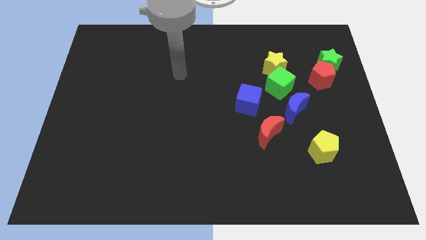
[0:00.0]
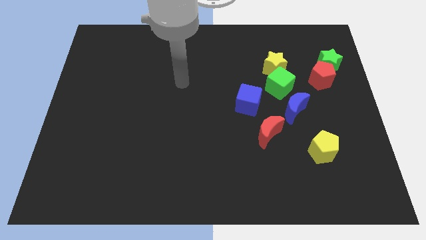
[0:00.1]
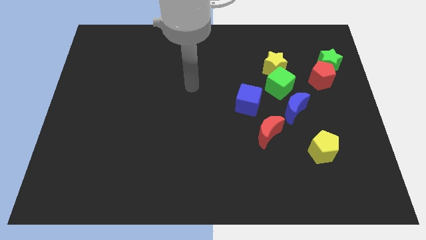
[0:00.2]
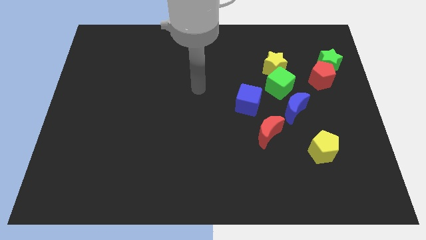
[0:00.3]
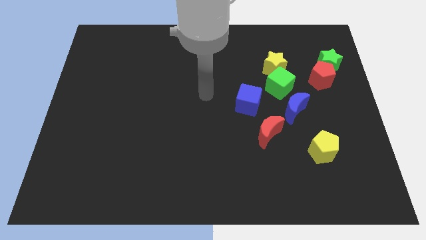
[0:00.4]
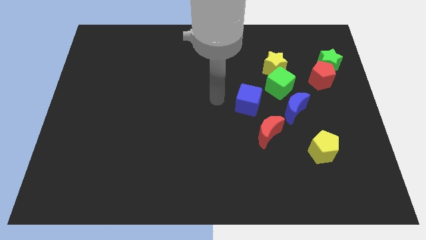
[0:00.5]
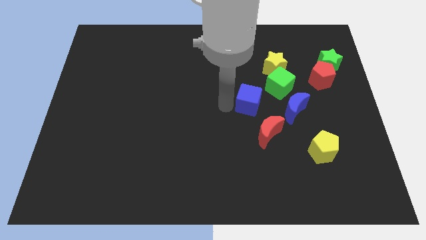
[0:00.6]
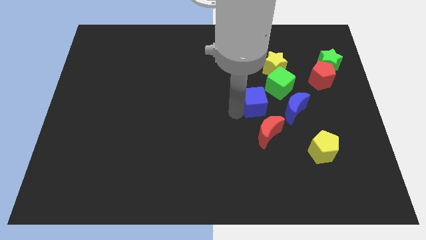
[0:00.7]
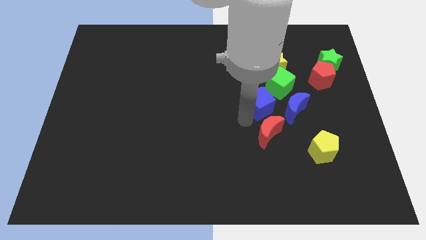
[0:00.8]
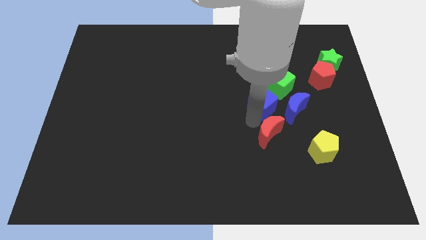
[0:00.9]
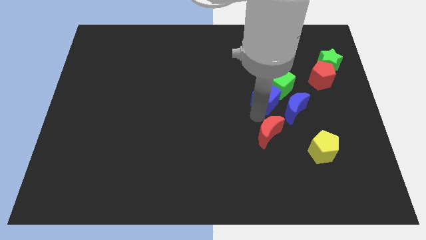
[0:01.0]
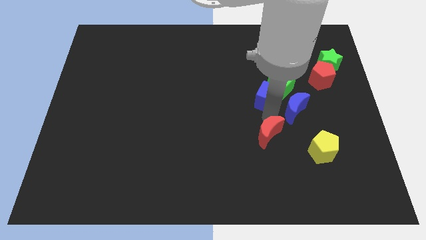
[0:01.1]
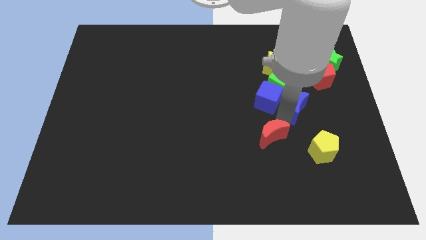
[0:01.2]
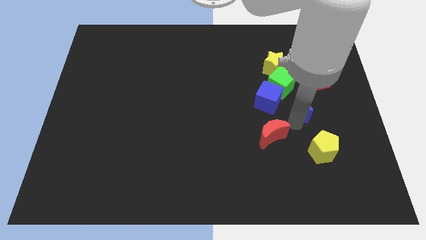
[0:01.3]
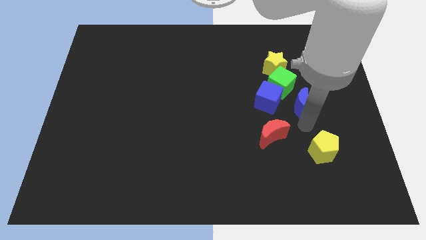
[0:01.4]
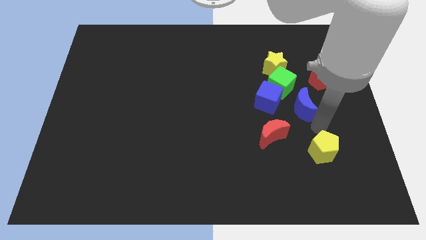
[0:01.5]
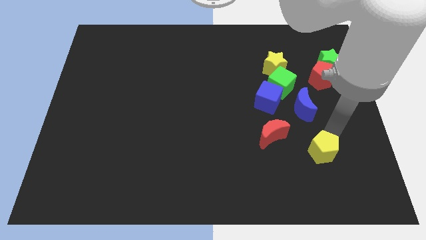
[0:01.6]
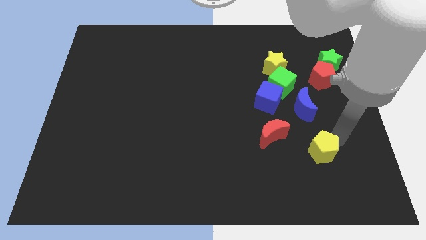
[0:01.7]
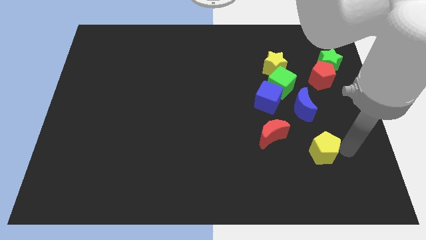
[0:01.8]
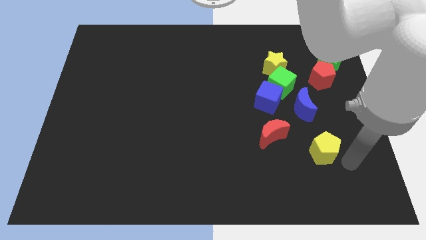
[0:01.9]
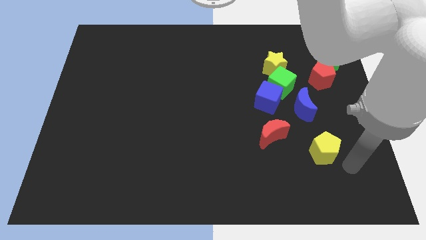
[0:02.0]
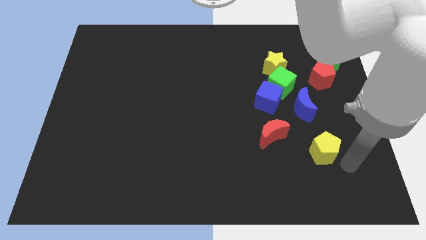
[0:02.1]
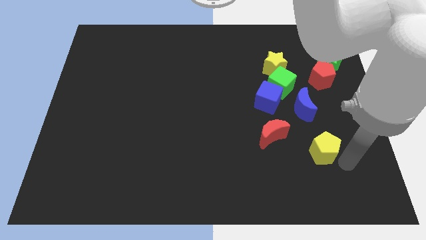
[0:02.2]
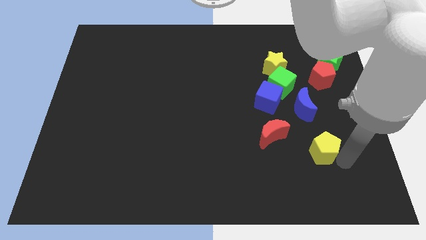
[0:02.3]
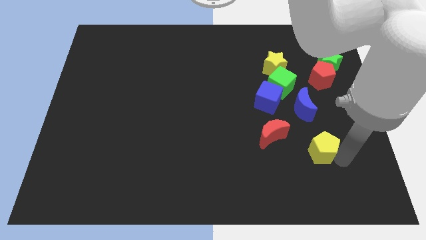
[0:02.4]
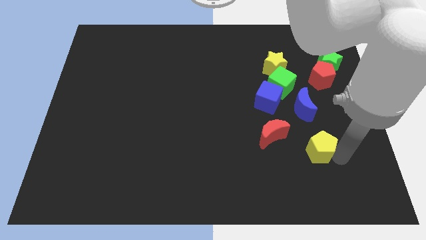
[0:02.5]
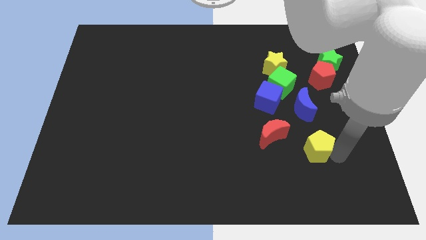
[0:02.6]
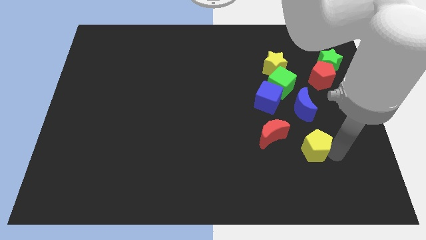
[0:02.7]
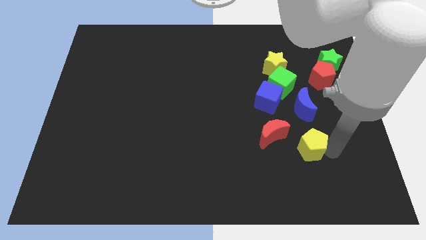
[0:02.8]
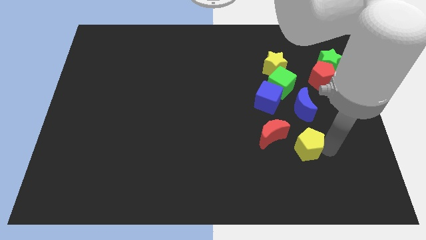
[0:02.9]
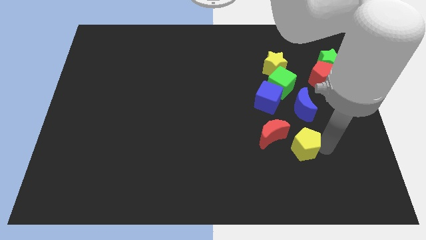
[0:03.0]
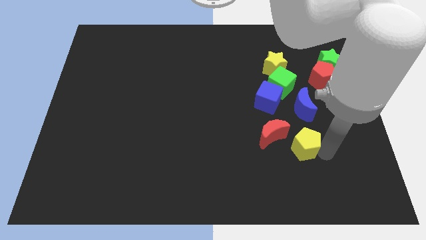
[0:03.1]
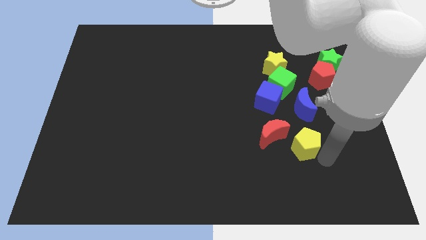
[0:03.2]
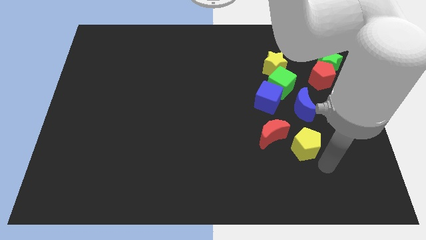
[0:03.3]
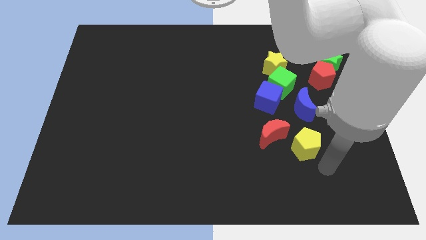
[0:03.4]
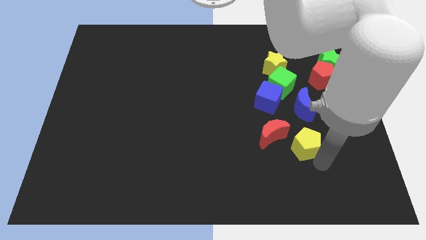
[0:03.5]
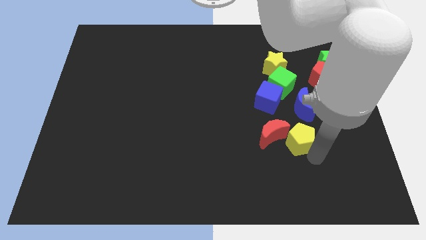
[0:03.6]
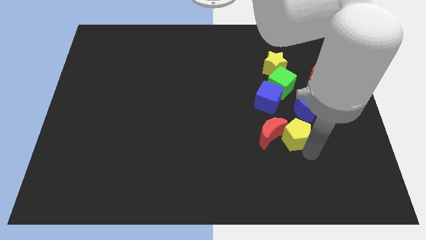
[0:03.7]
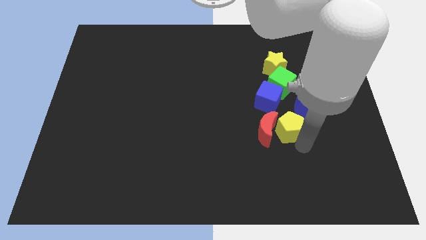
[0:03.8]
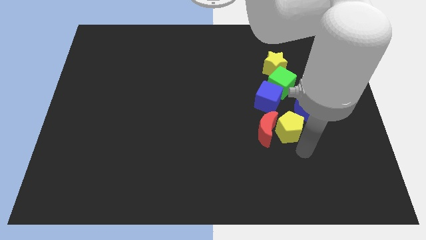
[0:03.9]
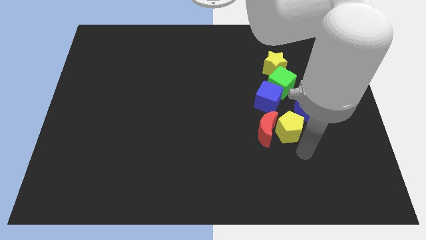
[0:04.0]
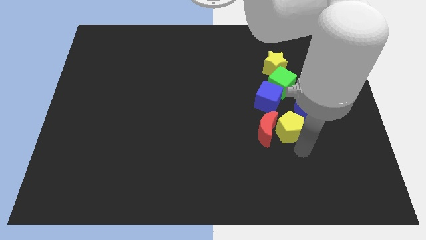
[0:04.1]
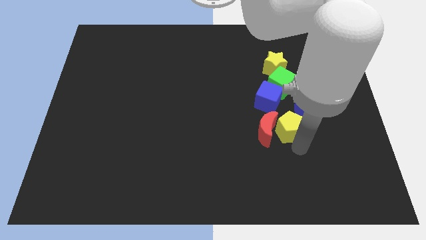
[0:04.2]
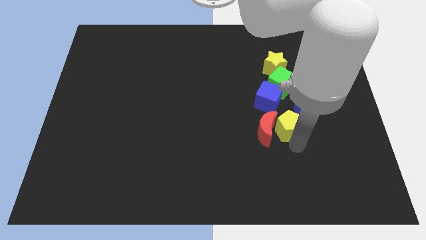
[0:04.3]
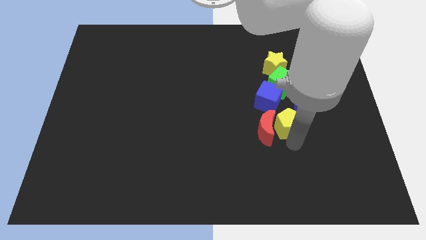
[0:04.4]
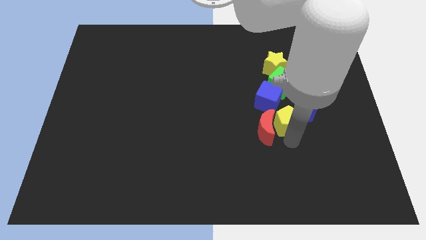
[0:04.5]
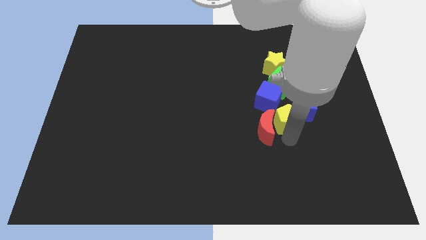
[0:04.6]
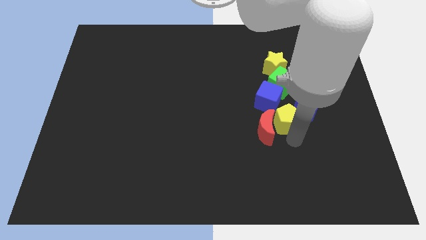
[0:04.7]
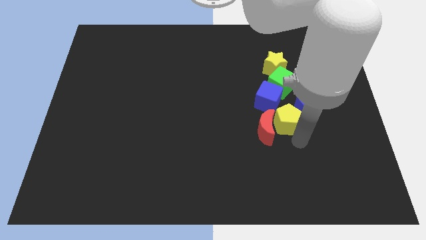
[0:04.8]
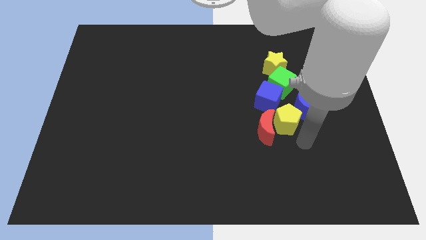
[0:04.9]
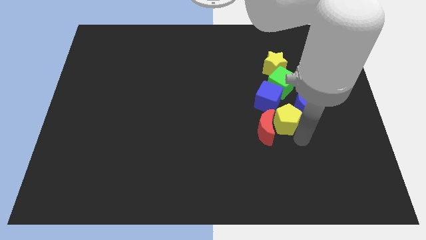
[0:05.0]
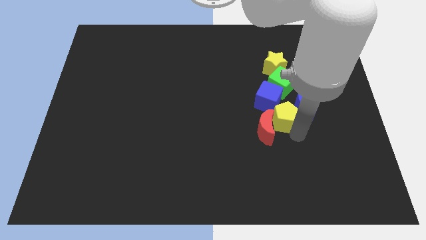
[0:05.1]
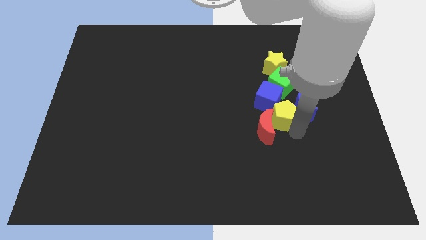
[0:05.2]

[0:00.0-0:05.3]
move the yellow pentagon close to the blue cube

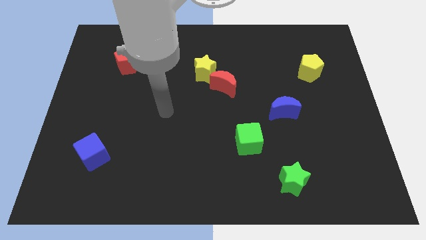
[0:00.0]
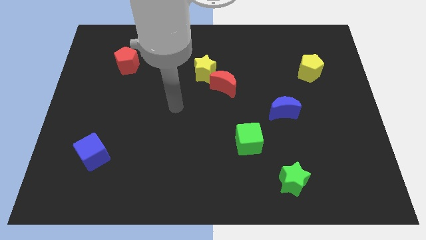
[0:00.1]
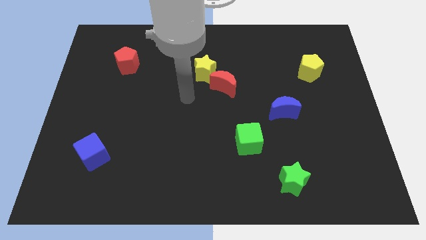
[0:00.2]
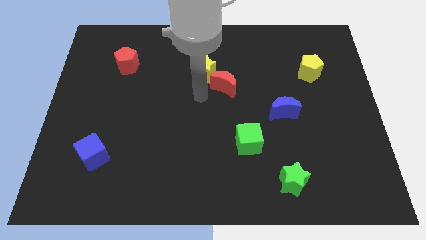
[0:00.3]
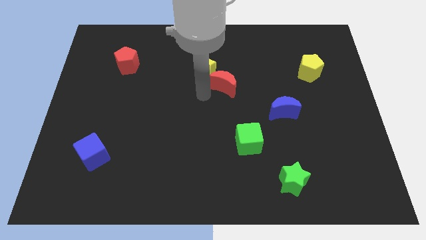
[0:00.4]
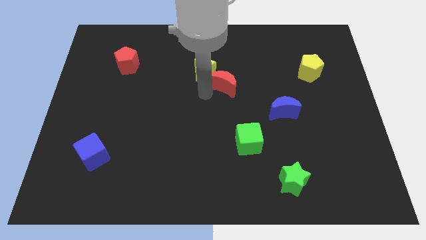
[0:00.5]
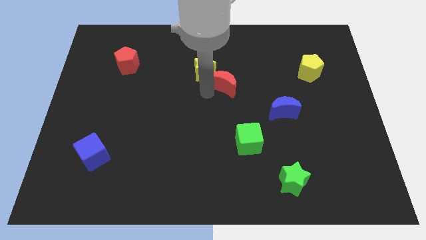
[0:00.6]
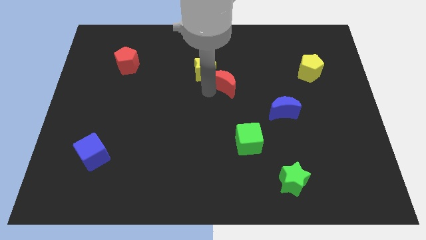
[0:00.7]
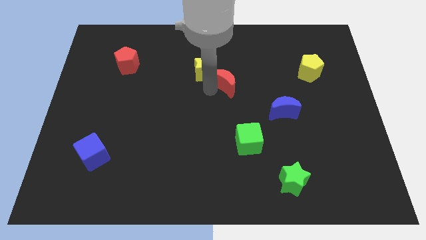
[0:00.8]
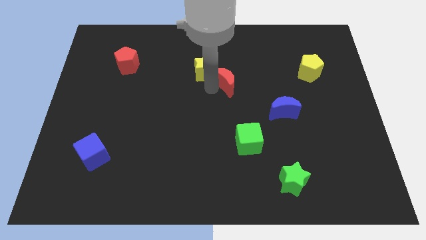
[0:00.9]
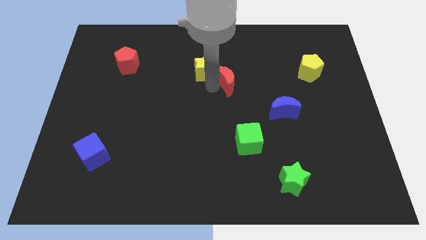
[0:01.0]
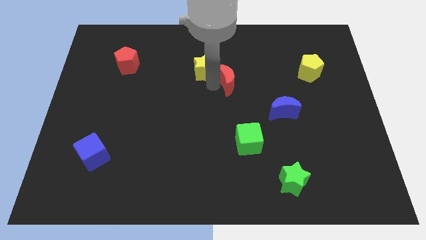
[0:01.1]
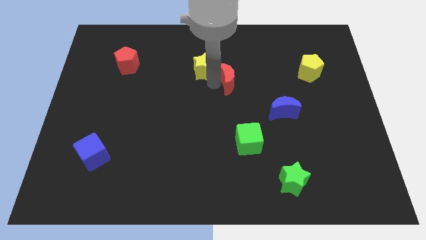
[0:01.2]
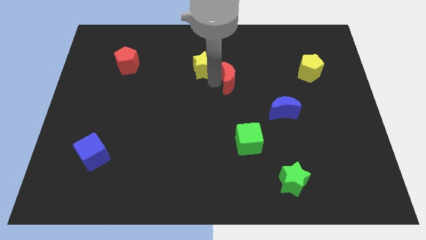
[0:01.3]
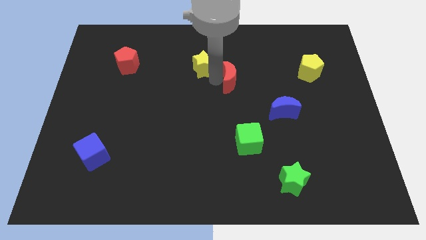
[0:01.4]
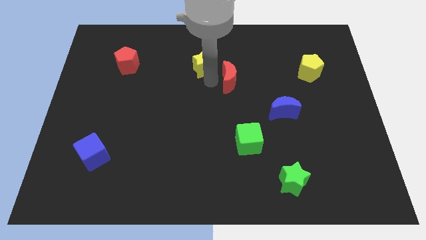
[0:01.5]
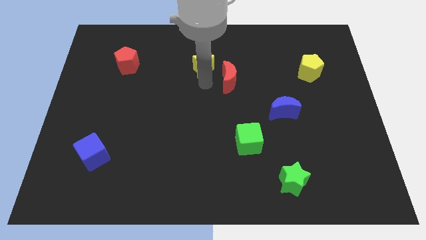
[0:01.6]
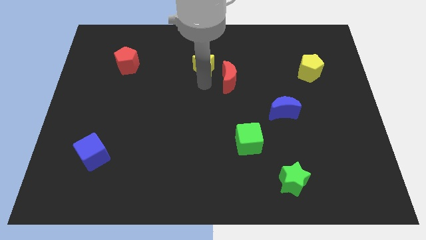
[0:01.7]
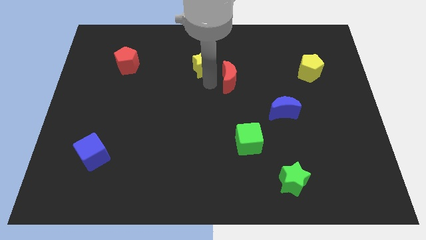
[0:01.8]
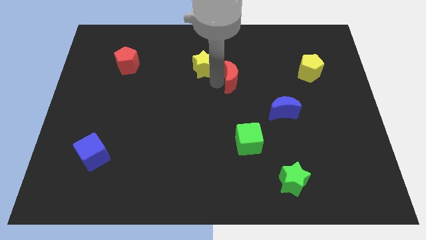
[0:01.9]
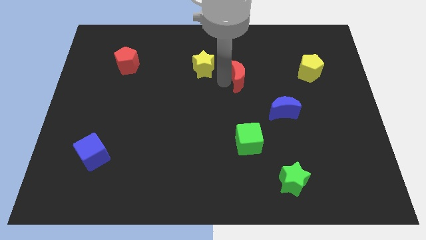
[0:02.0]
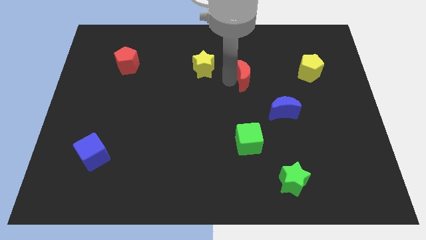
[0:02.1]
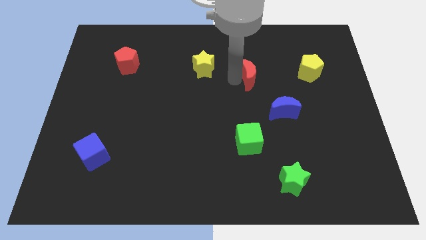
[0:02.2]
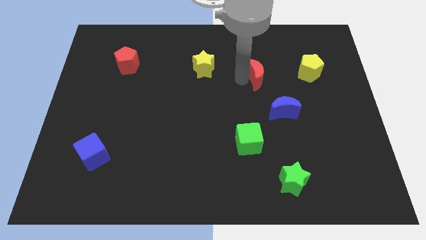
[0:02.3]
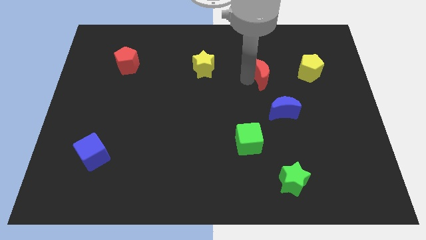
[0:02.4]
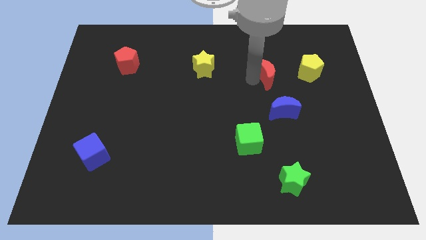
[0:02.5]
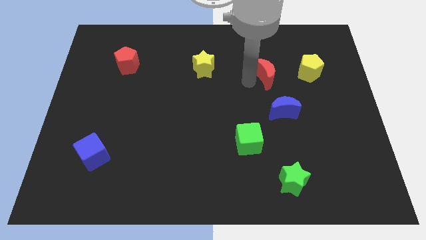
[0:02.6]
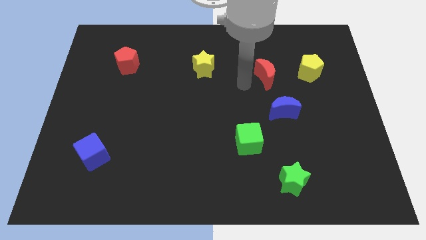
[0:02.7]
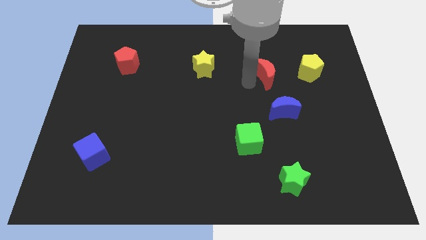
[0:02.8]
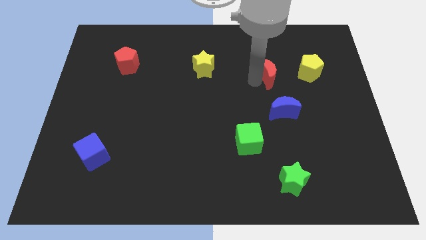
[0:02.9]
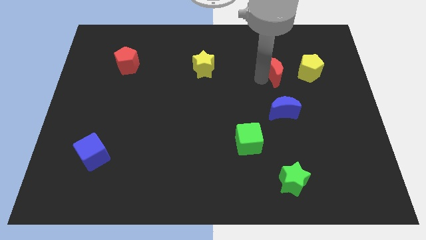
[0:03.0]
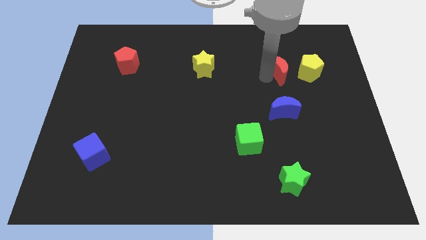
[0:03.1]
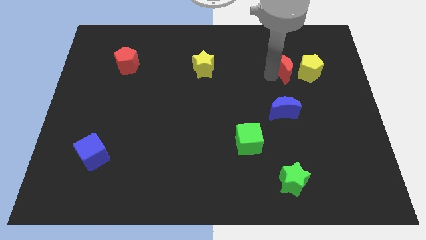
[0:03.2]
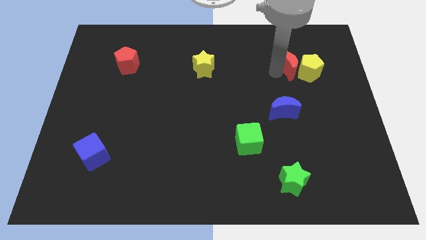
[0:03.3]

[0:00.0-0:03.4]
slide the red moon close to the yellow pentagon
